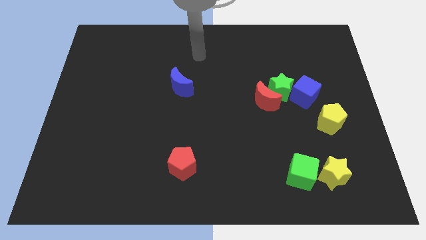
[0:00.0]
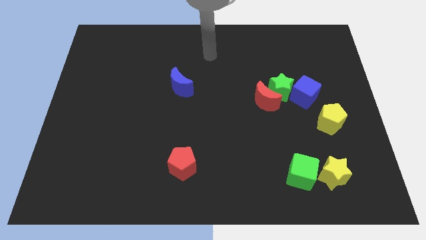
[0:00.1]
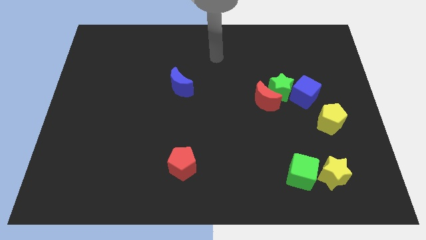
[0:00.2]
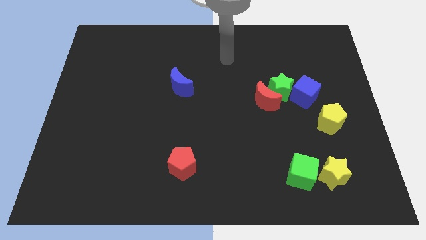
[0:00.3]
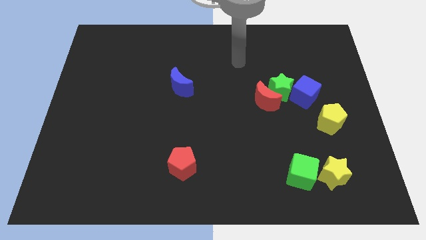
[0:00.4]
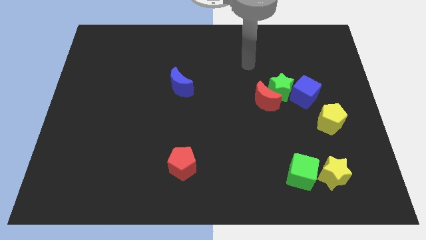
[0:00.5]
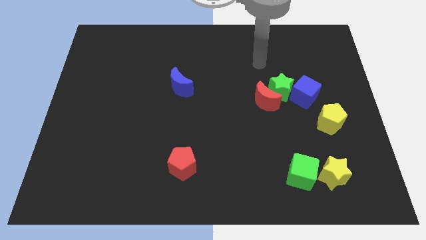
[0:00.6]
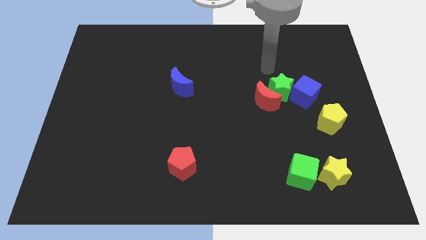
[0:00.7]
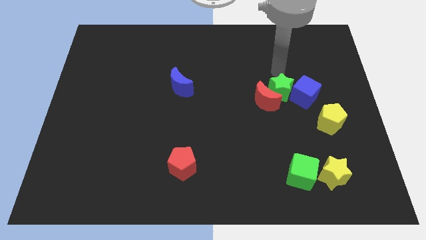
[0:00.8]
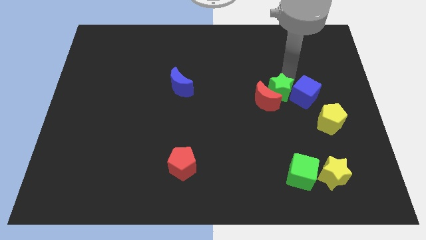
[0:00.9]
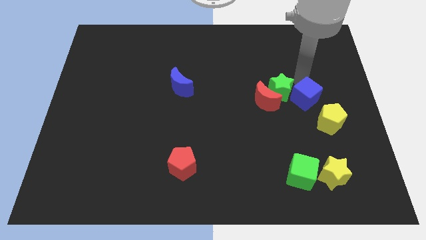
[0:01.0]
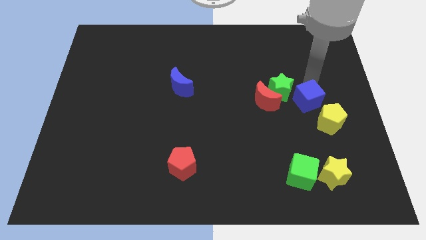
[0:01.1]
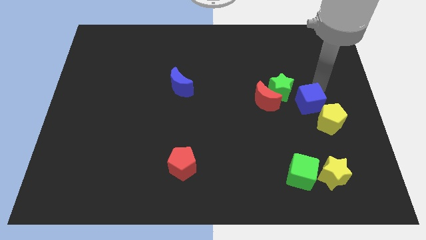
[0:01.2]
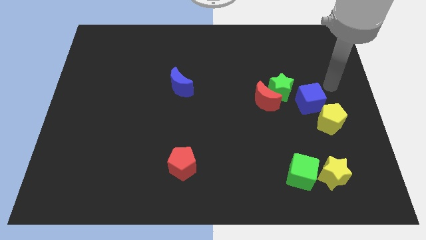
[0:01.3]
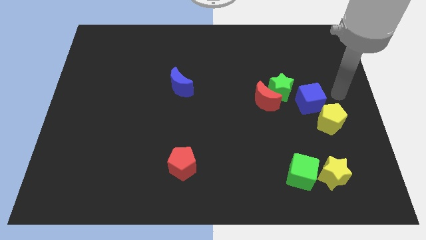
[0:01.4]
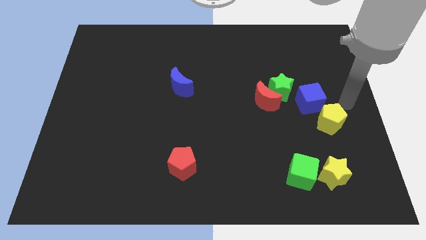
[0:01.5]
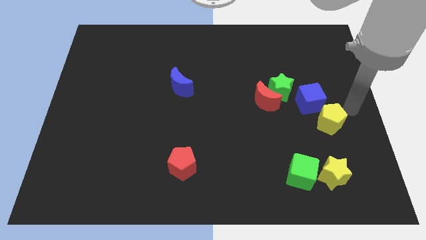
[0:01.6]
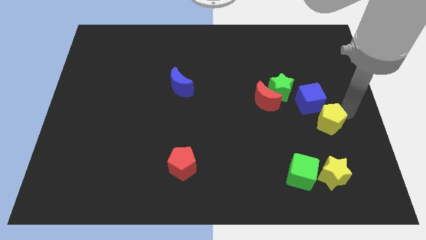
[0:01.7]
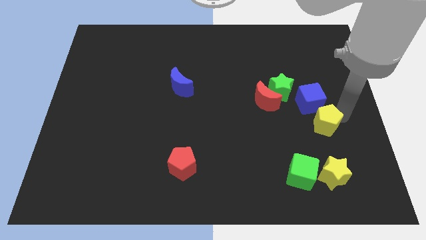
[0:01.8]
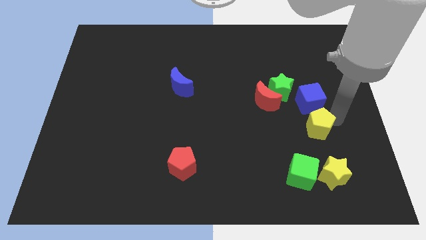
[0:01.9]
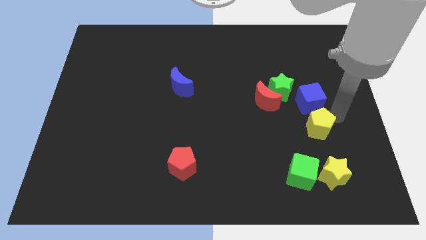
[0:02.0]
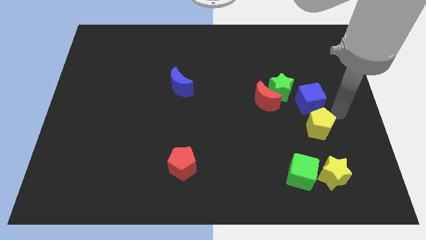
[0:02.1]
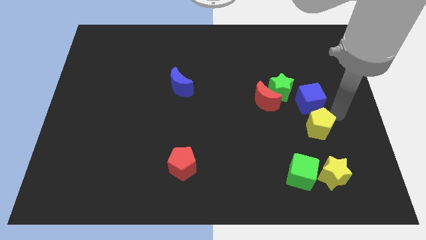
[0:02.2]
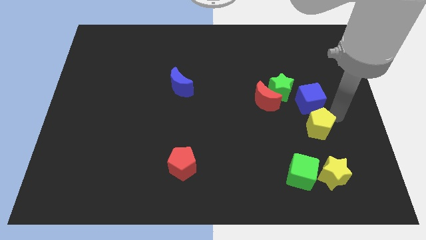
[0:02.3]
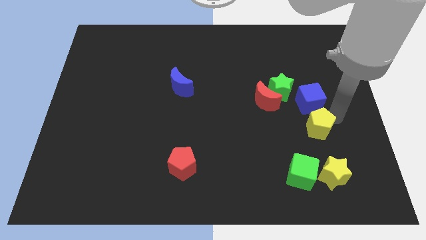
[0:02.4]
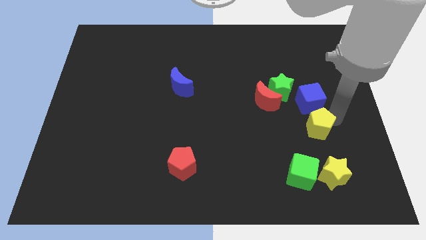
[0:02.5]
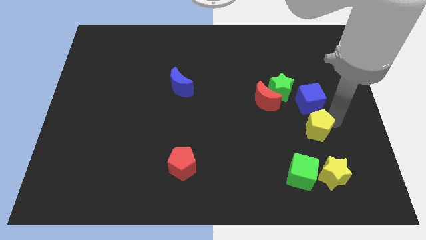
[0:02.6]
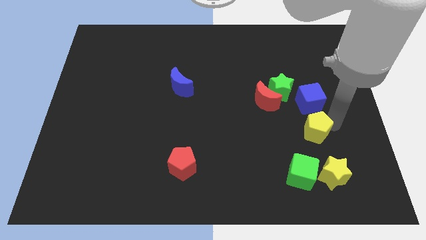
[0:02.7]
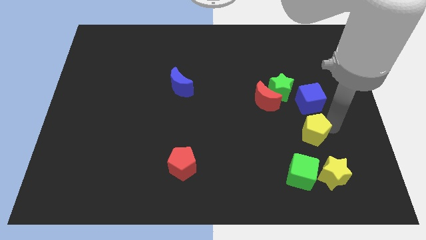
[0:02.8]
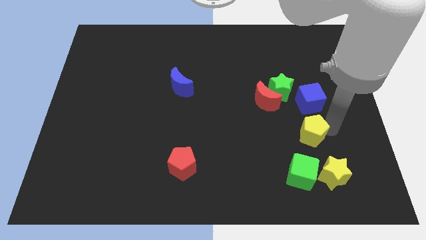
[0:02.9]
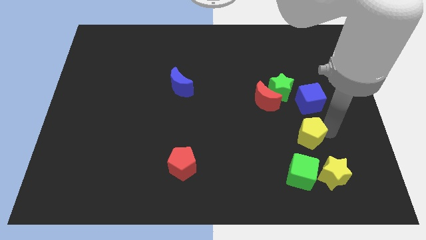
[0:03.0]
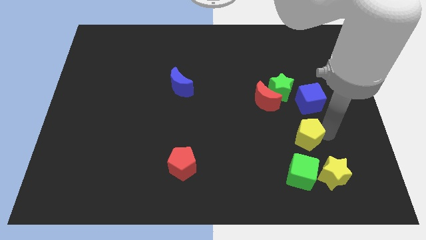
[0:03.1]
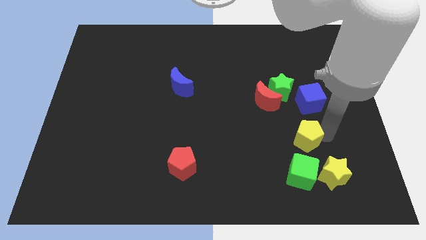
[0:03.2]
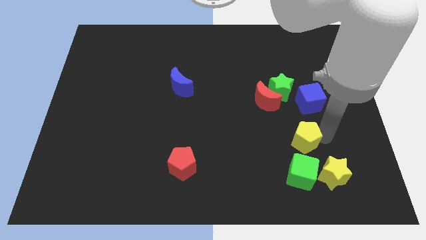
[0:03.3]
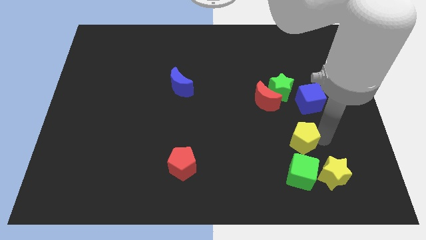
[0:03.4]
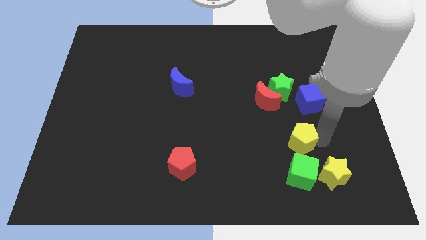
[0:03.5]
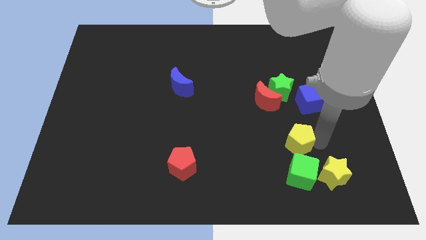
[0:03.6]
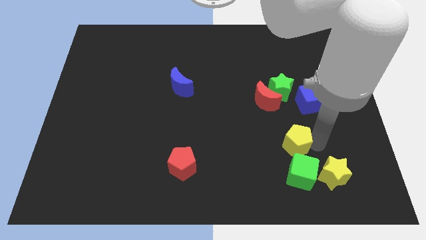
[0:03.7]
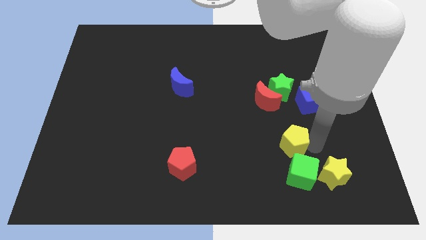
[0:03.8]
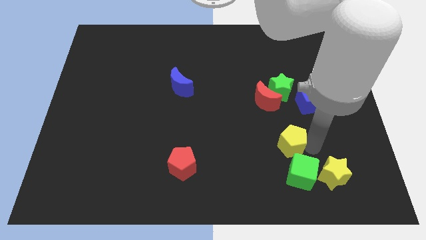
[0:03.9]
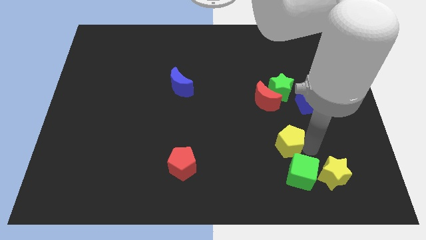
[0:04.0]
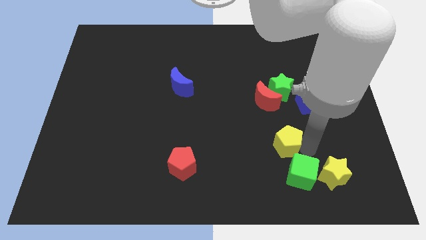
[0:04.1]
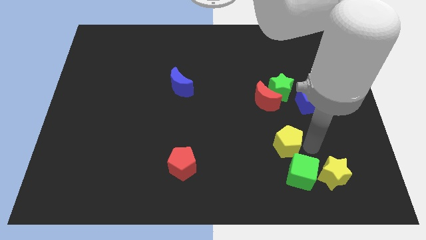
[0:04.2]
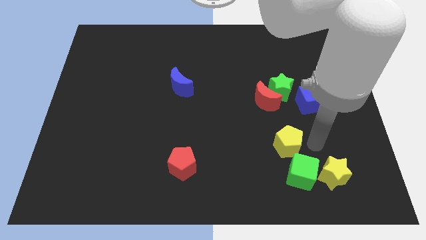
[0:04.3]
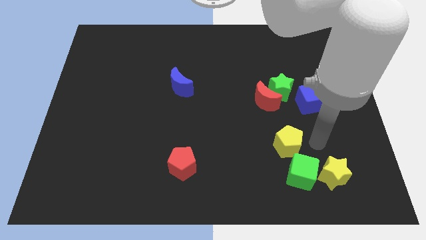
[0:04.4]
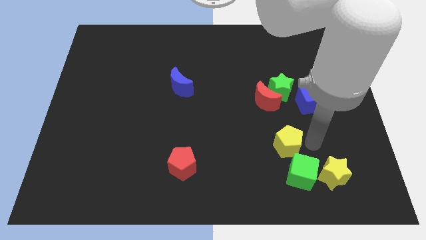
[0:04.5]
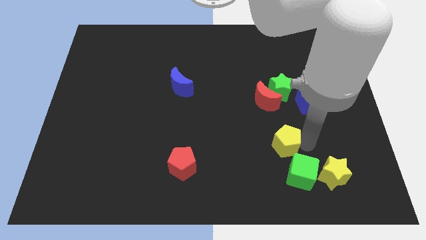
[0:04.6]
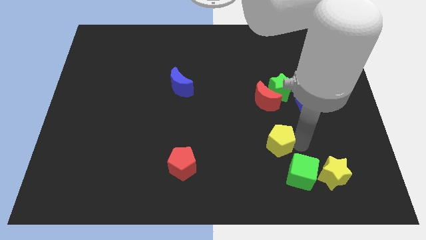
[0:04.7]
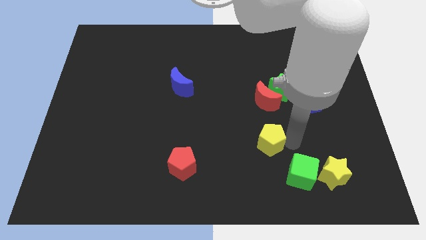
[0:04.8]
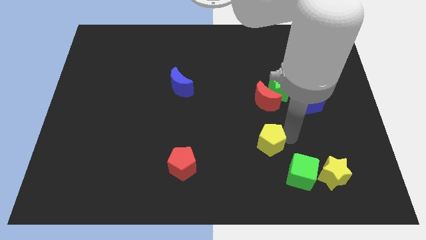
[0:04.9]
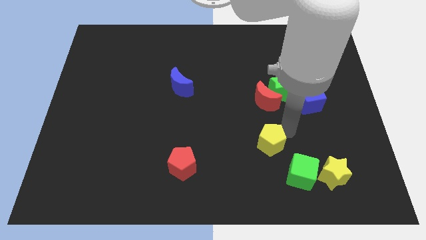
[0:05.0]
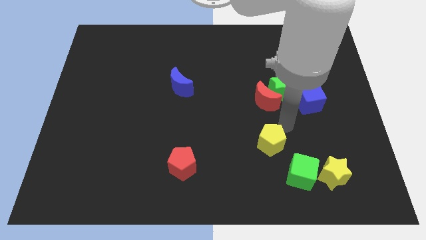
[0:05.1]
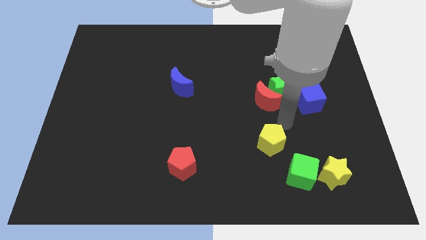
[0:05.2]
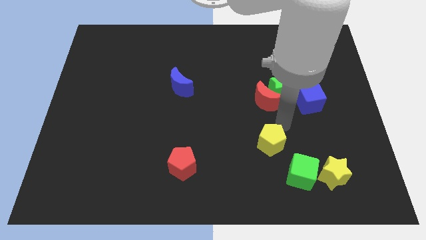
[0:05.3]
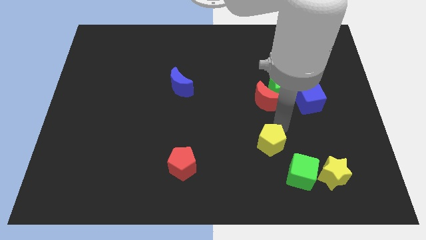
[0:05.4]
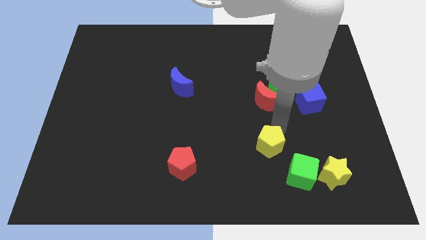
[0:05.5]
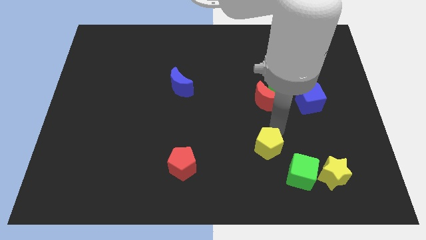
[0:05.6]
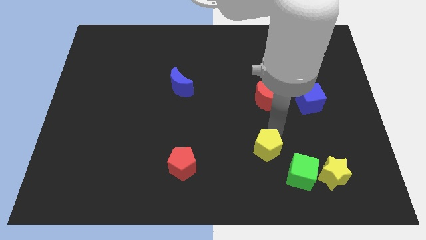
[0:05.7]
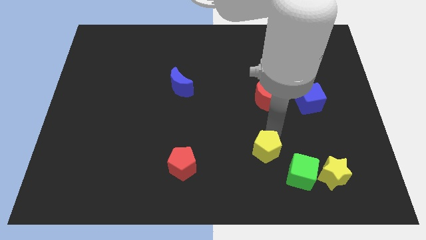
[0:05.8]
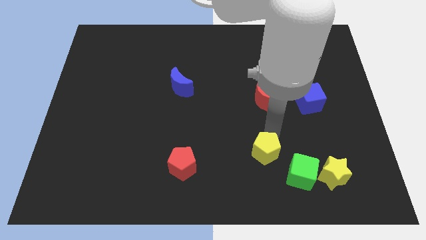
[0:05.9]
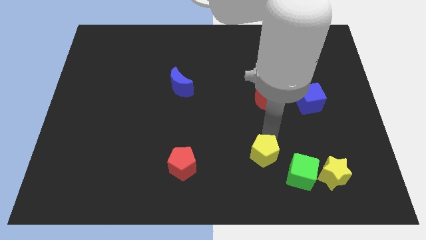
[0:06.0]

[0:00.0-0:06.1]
push the yellow pentagon to the left side of the green cube

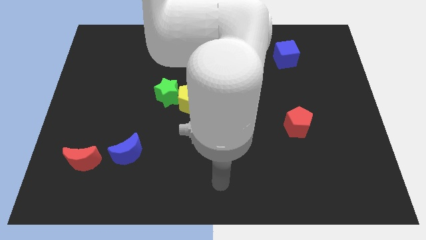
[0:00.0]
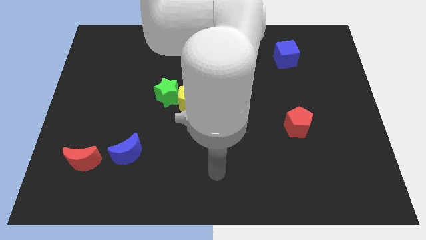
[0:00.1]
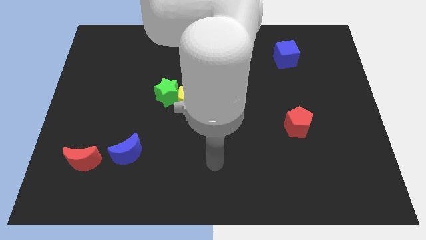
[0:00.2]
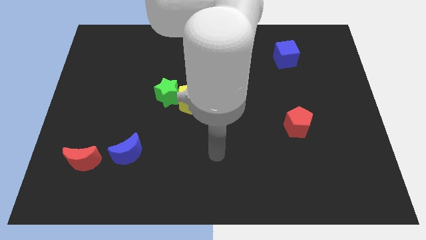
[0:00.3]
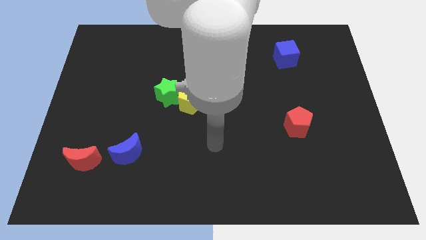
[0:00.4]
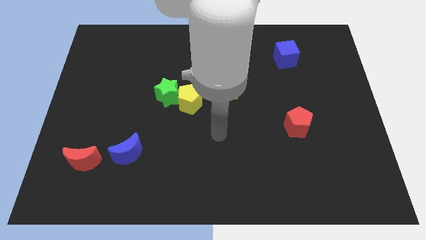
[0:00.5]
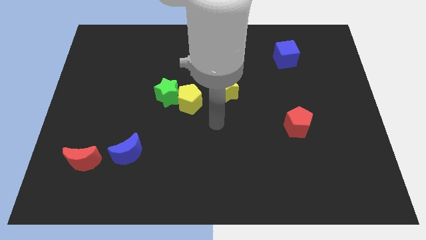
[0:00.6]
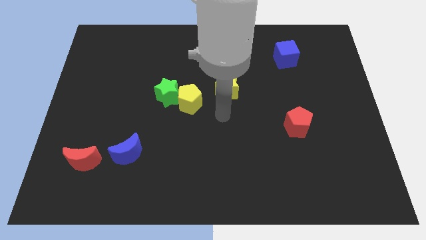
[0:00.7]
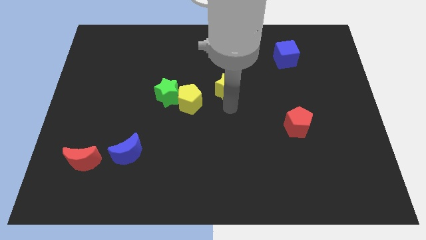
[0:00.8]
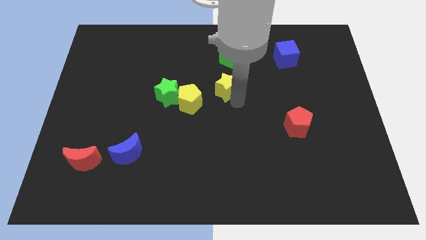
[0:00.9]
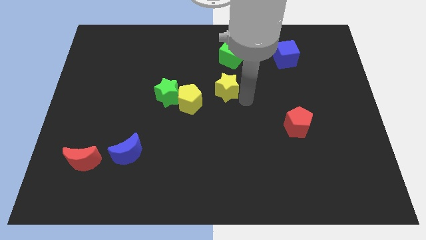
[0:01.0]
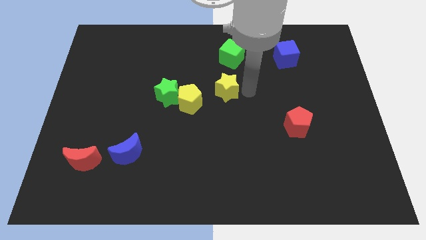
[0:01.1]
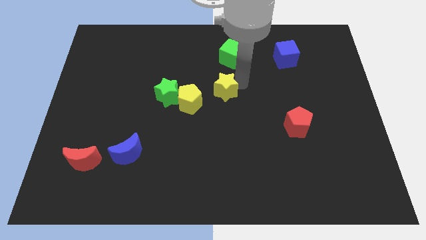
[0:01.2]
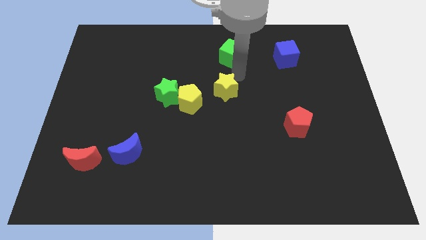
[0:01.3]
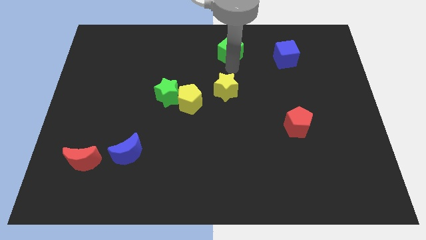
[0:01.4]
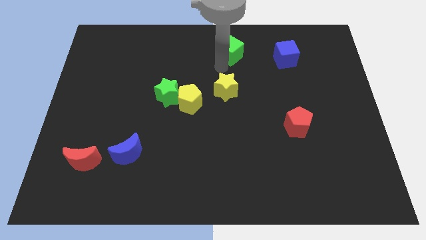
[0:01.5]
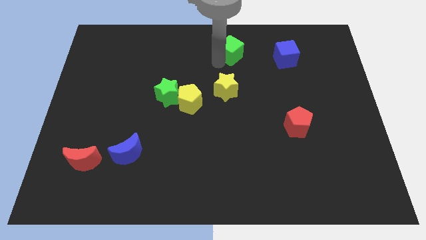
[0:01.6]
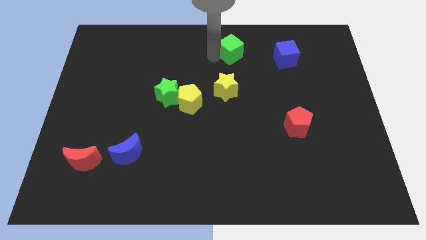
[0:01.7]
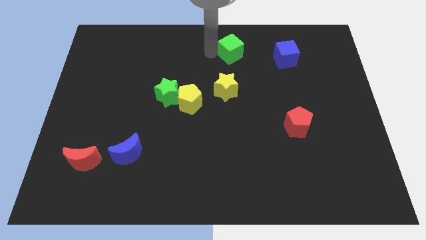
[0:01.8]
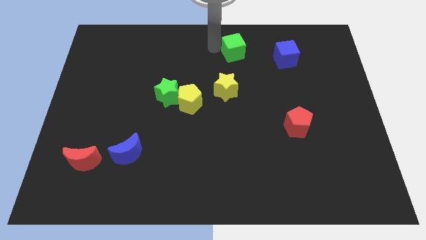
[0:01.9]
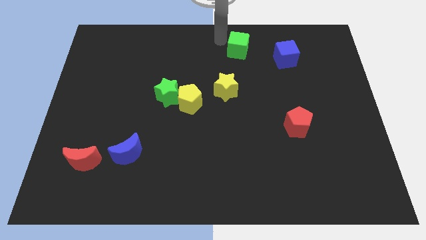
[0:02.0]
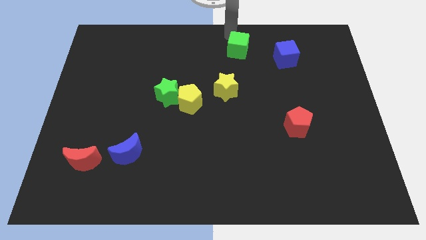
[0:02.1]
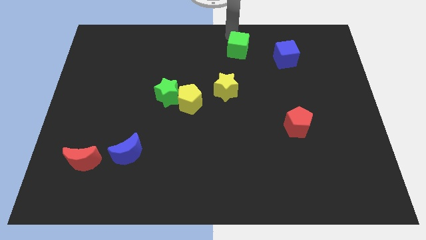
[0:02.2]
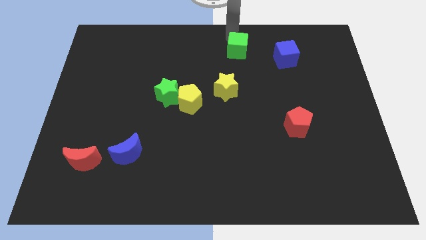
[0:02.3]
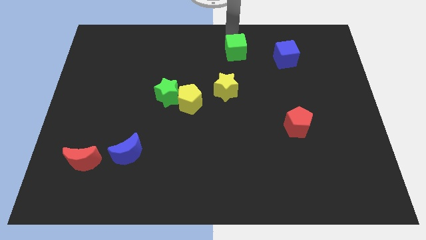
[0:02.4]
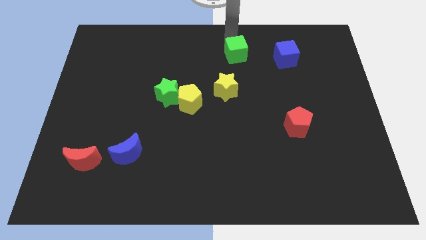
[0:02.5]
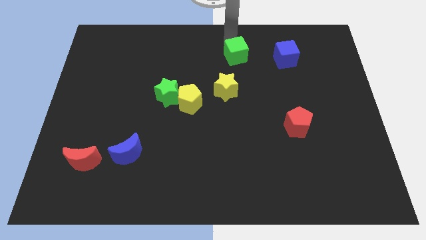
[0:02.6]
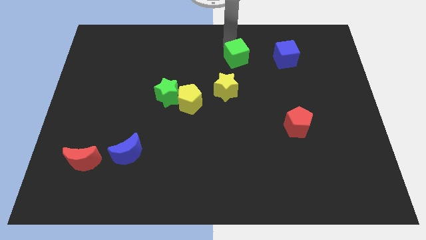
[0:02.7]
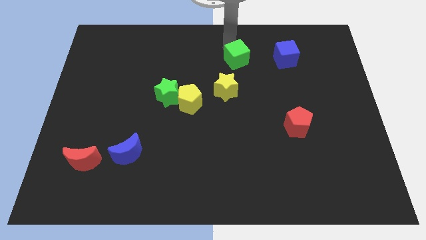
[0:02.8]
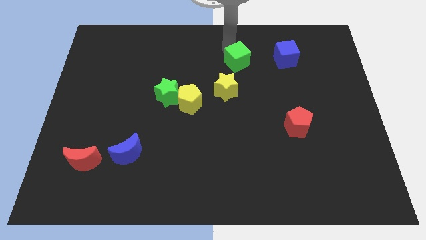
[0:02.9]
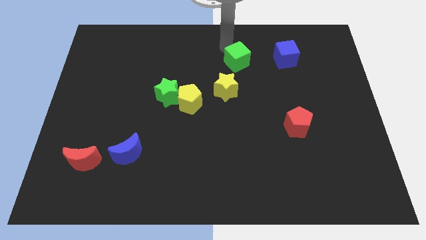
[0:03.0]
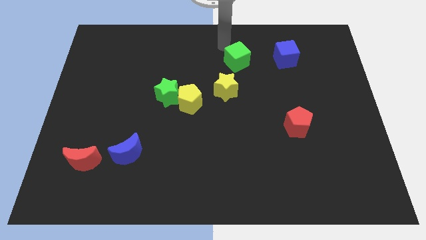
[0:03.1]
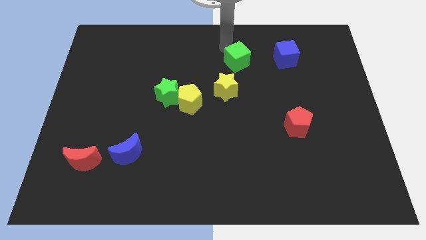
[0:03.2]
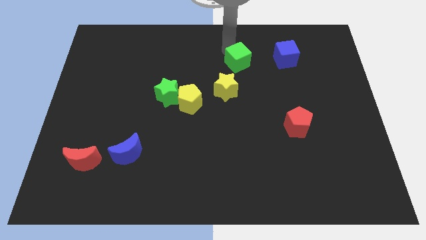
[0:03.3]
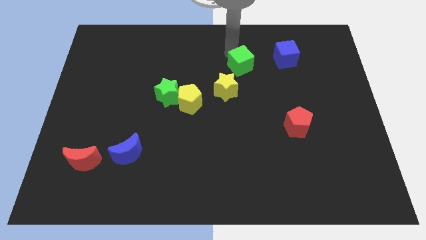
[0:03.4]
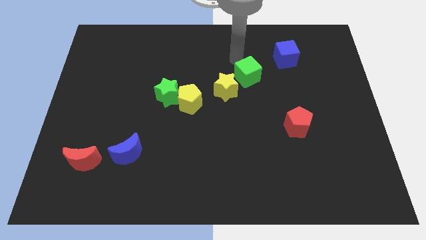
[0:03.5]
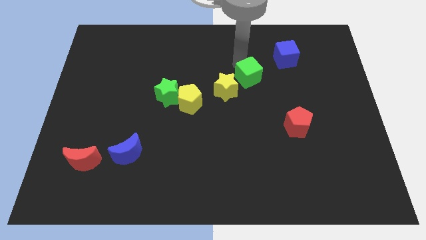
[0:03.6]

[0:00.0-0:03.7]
slide the green cube right of the yellow star
